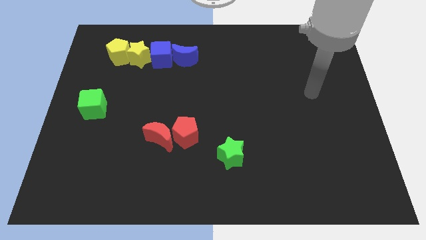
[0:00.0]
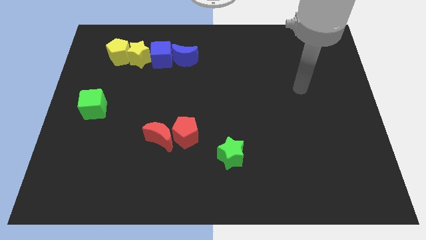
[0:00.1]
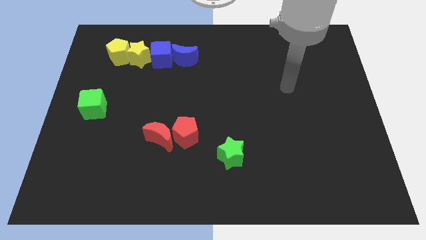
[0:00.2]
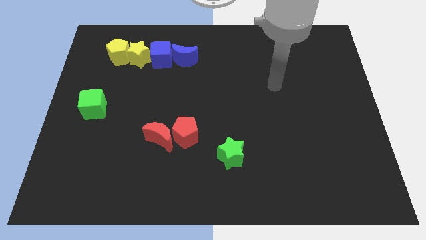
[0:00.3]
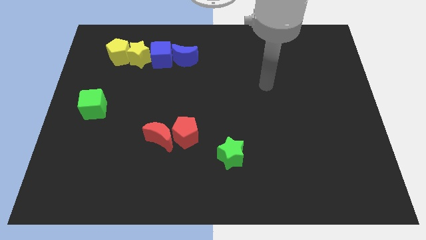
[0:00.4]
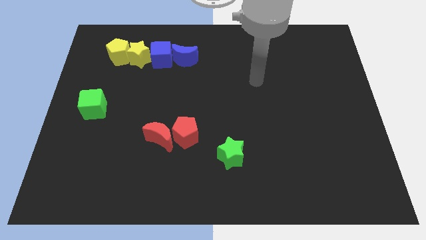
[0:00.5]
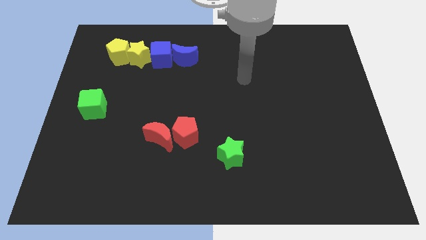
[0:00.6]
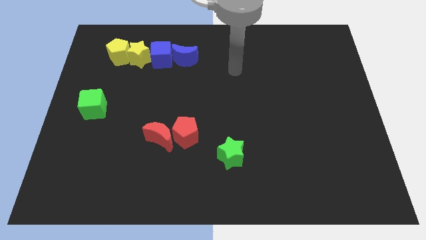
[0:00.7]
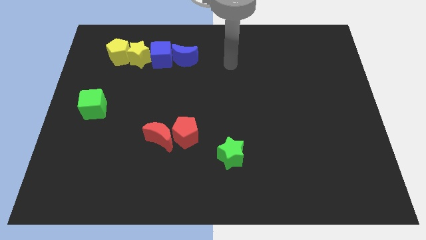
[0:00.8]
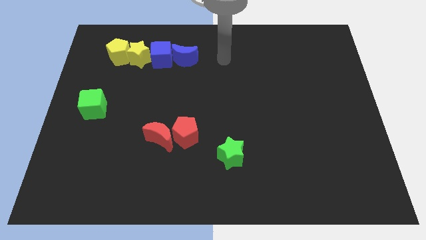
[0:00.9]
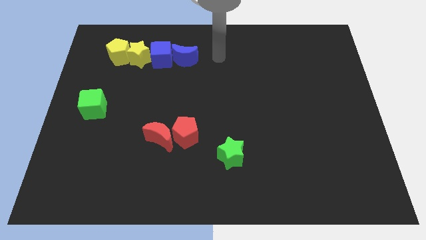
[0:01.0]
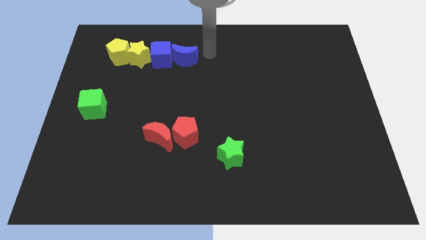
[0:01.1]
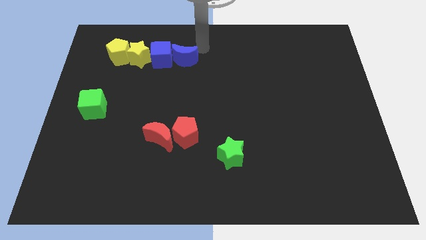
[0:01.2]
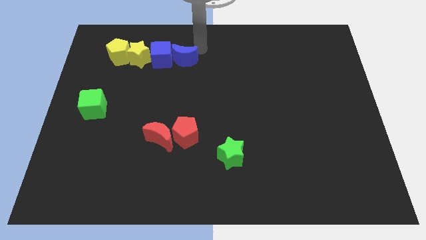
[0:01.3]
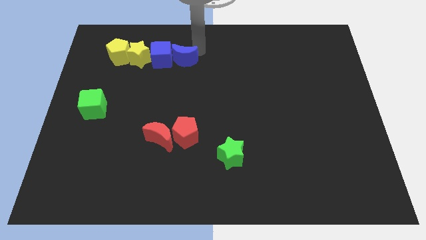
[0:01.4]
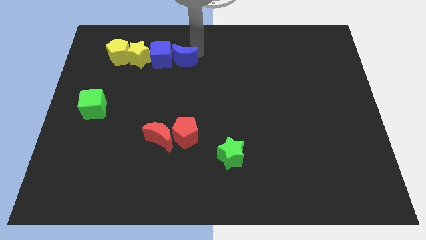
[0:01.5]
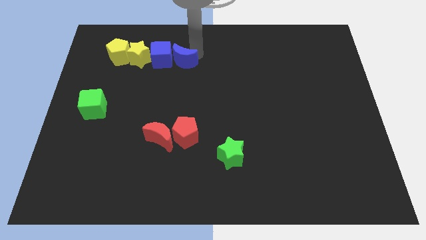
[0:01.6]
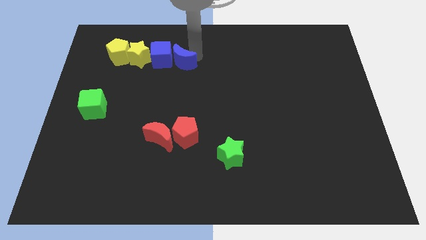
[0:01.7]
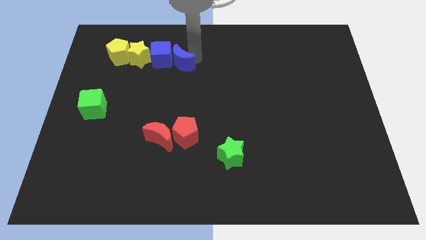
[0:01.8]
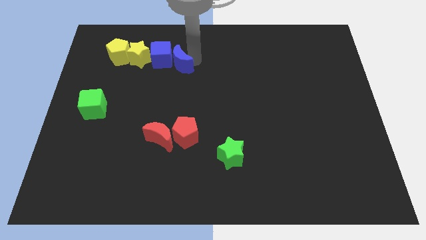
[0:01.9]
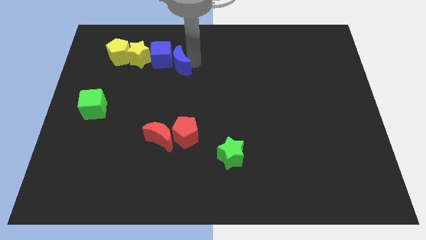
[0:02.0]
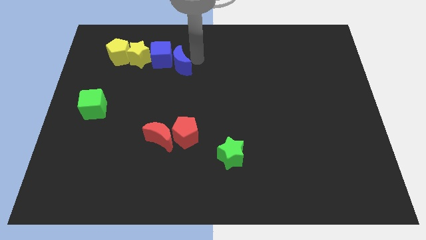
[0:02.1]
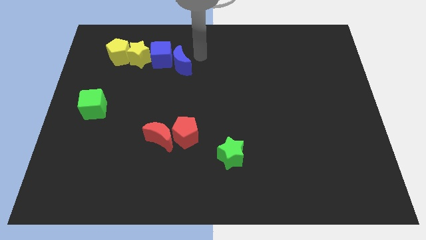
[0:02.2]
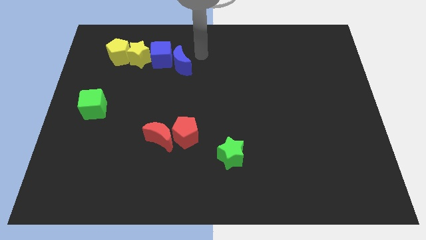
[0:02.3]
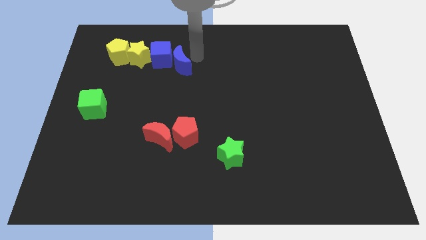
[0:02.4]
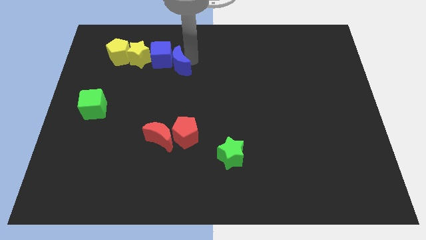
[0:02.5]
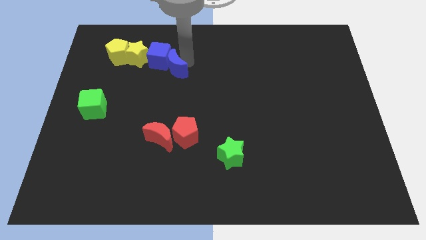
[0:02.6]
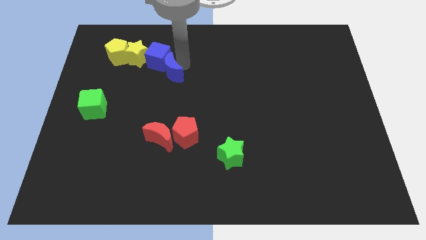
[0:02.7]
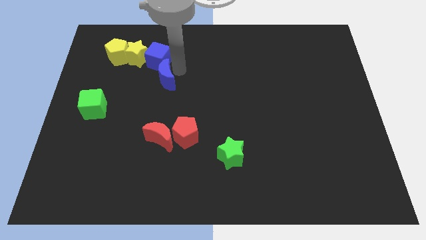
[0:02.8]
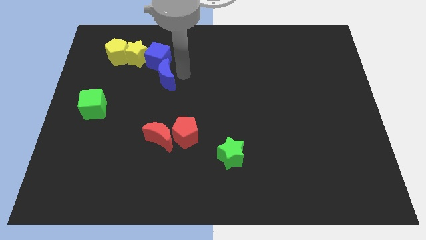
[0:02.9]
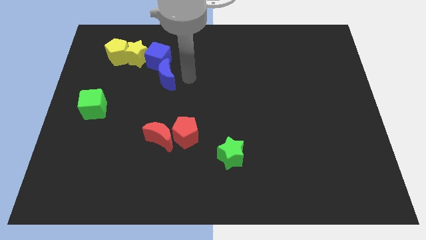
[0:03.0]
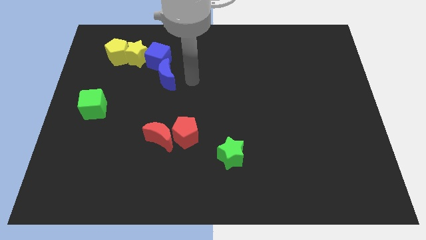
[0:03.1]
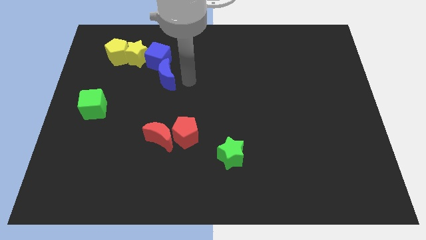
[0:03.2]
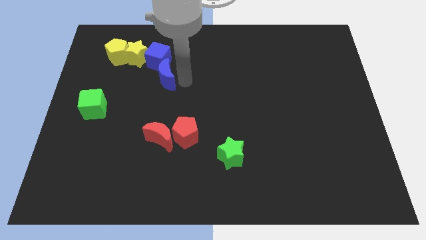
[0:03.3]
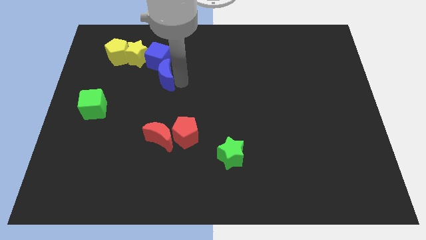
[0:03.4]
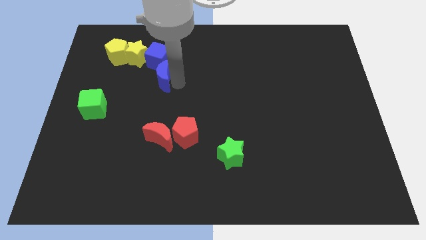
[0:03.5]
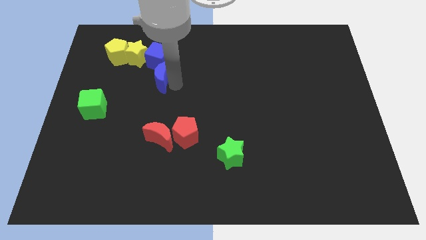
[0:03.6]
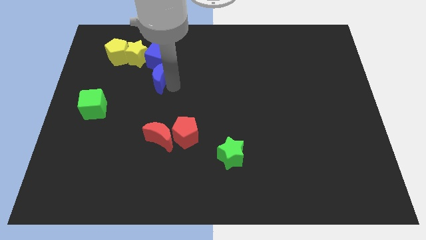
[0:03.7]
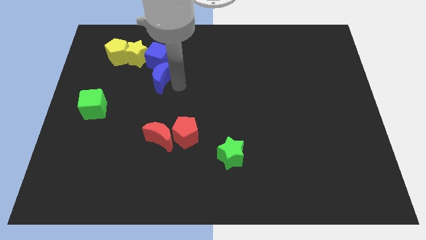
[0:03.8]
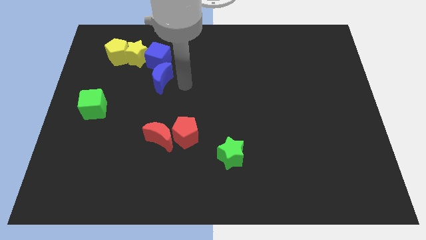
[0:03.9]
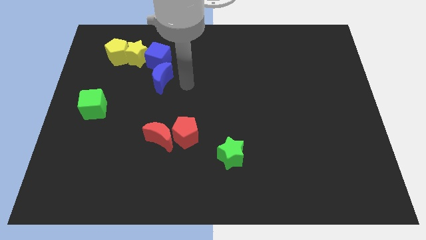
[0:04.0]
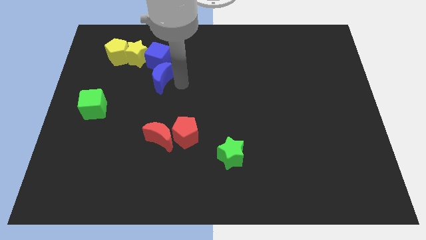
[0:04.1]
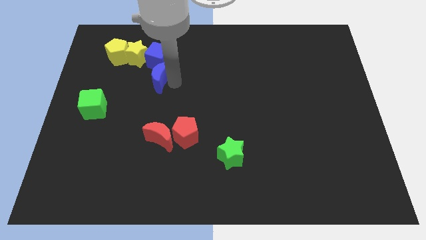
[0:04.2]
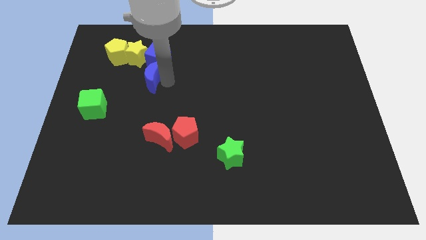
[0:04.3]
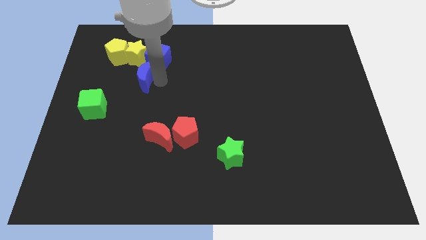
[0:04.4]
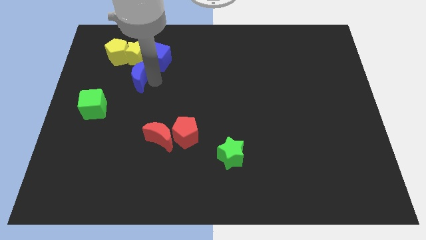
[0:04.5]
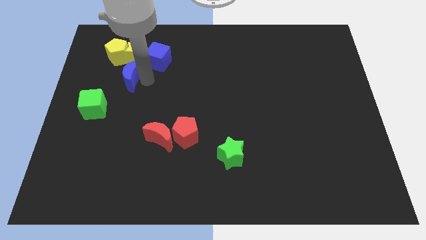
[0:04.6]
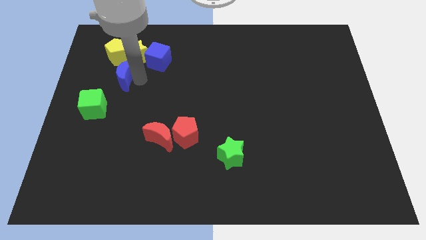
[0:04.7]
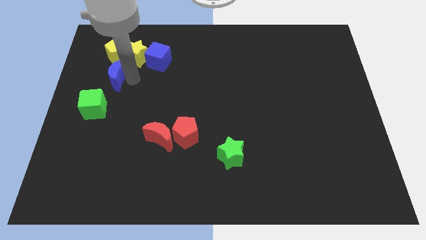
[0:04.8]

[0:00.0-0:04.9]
move the blue moon to the top of the green cube

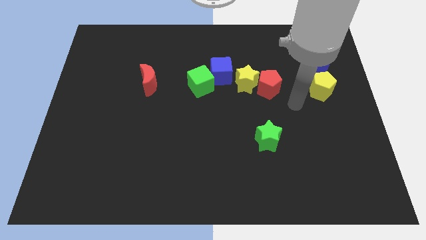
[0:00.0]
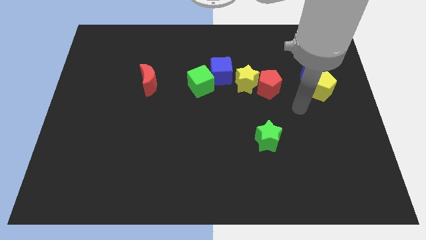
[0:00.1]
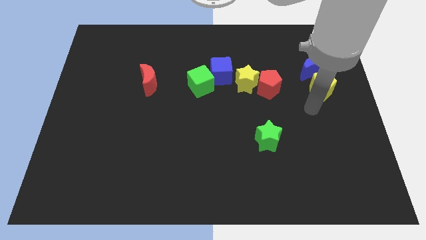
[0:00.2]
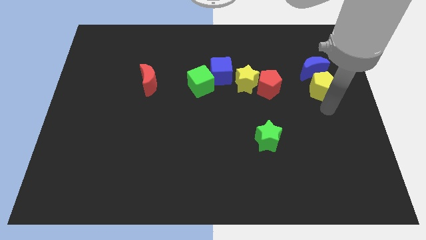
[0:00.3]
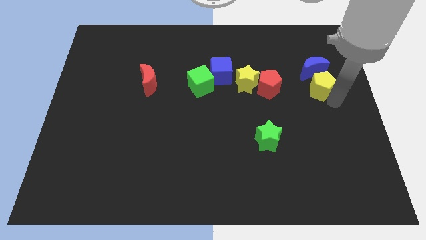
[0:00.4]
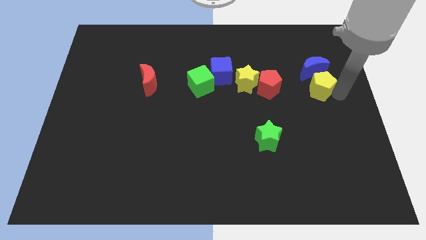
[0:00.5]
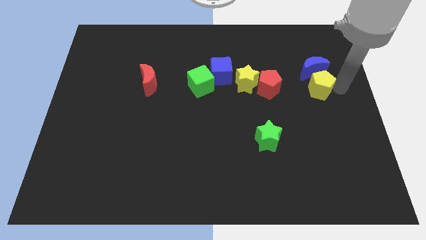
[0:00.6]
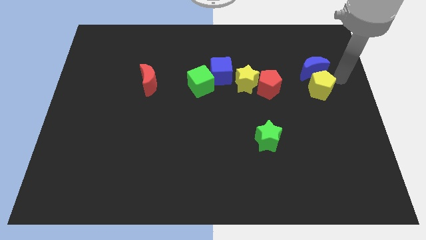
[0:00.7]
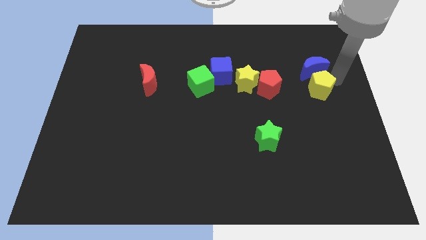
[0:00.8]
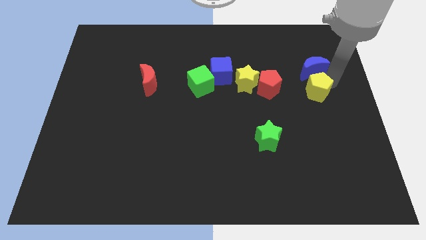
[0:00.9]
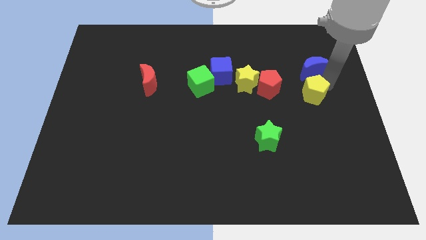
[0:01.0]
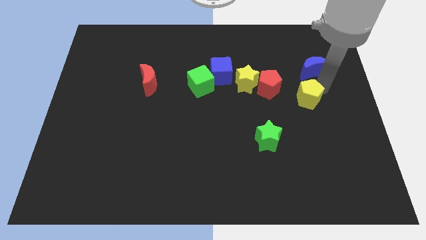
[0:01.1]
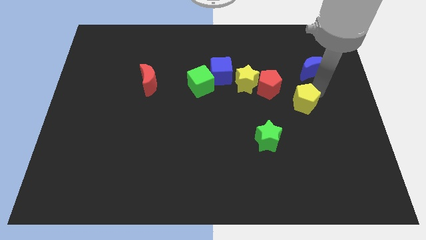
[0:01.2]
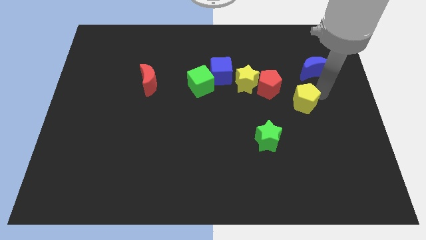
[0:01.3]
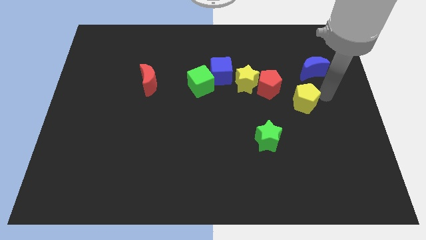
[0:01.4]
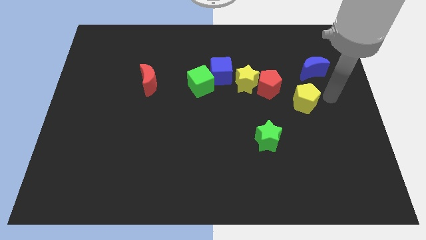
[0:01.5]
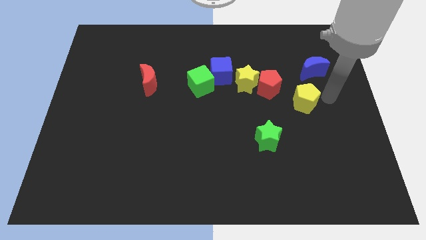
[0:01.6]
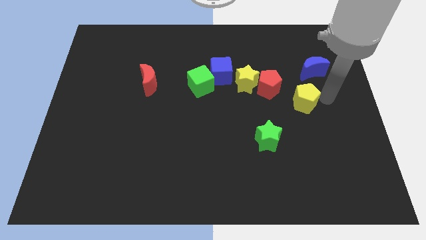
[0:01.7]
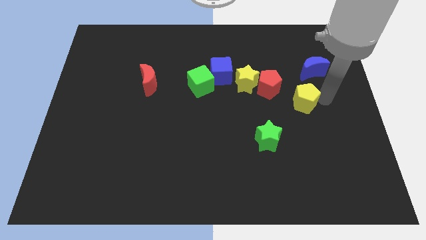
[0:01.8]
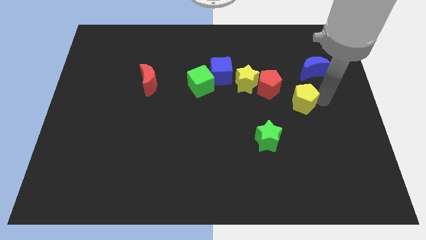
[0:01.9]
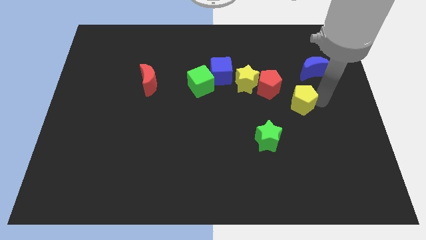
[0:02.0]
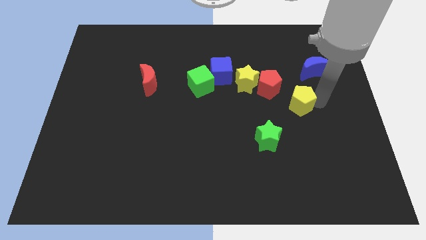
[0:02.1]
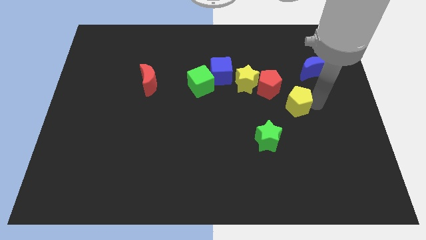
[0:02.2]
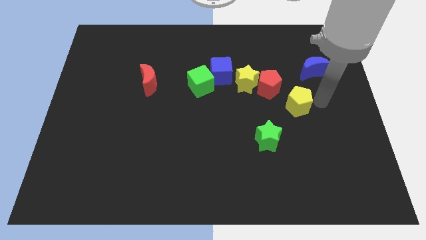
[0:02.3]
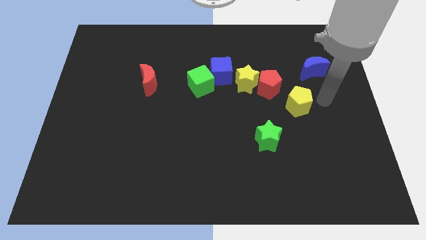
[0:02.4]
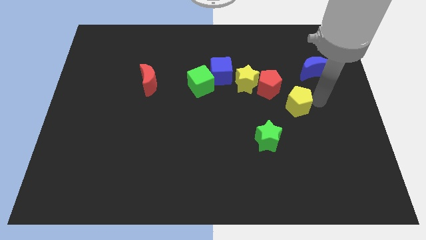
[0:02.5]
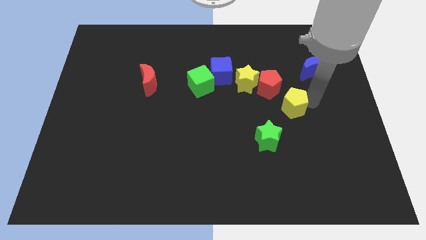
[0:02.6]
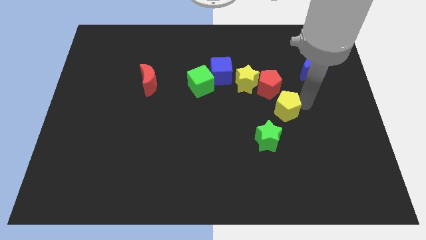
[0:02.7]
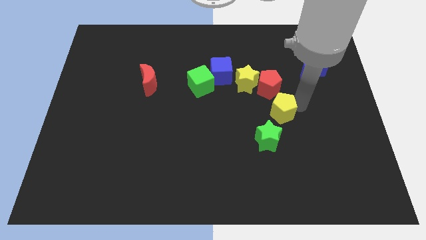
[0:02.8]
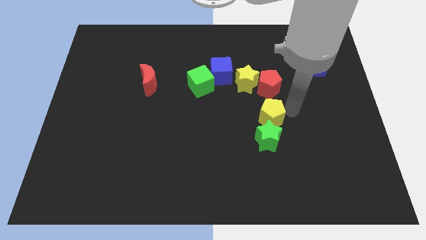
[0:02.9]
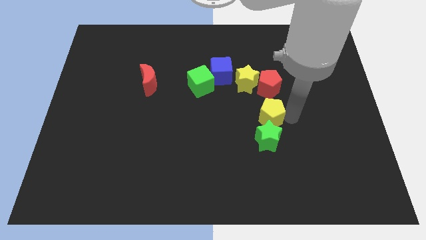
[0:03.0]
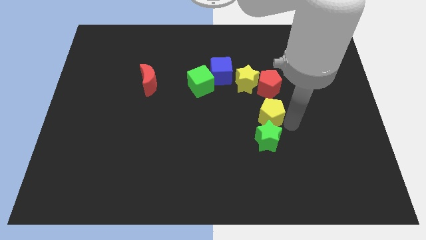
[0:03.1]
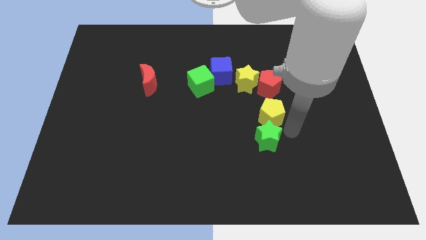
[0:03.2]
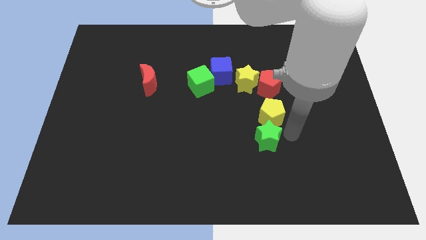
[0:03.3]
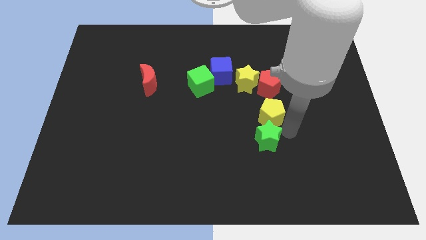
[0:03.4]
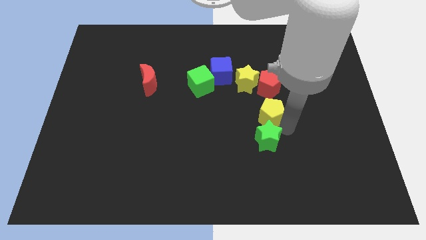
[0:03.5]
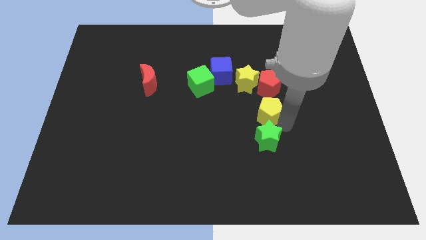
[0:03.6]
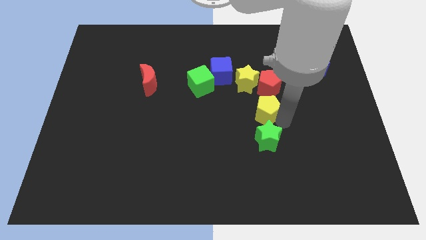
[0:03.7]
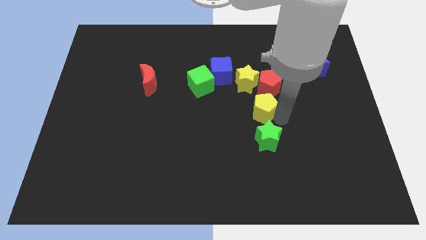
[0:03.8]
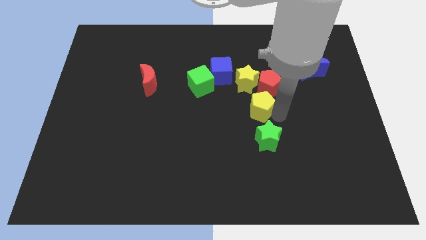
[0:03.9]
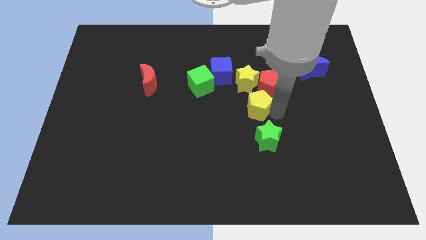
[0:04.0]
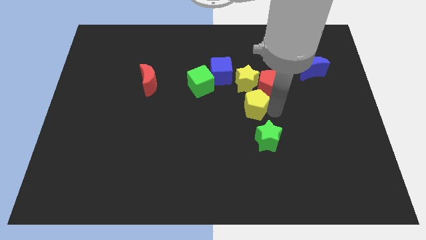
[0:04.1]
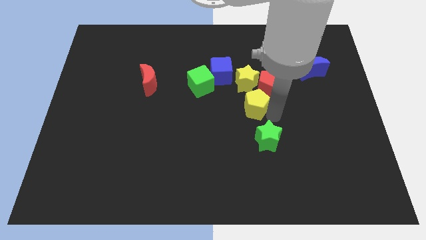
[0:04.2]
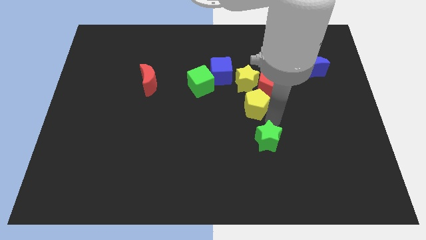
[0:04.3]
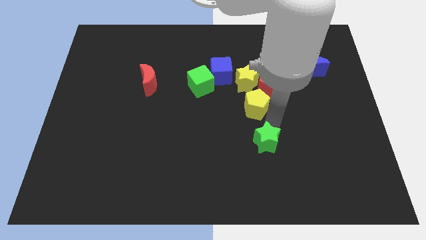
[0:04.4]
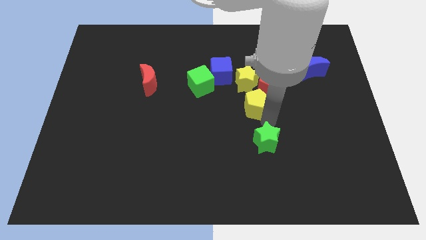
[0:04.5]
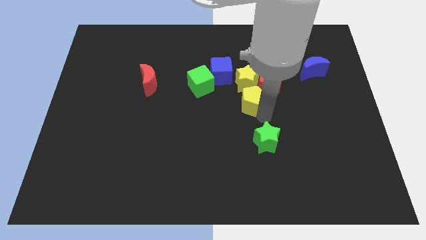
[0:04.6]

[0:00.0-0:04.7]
move the yellow pentagon diagonally down and to the right of the blue cube
